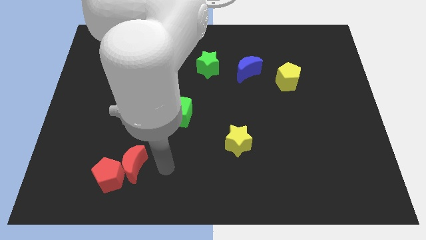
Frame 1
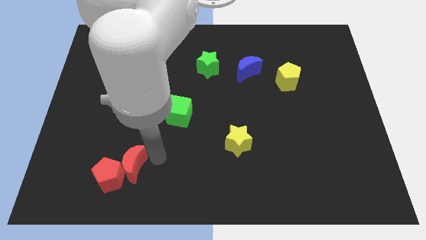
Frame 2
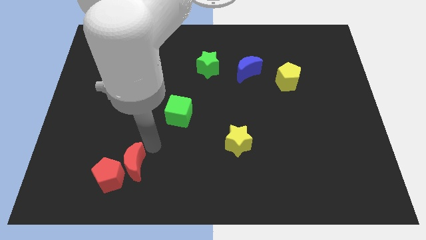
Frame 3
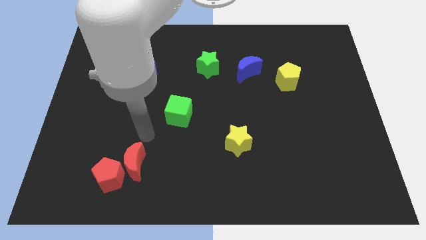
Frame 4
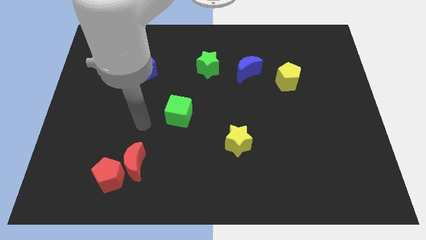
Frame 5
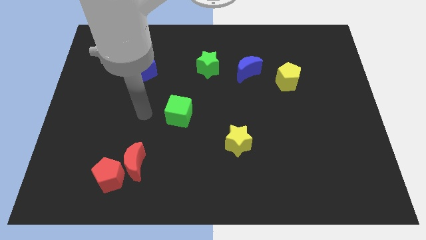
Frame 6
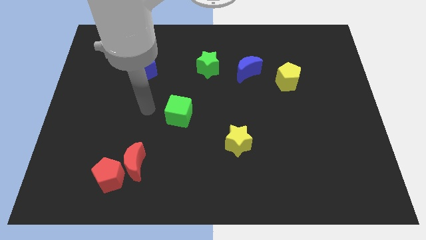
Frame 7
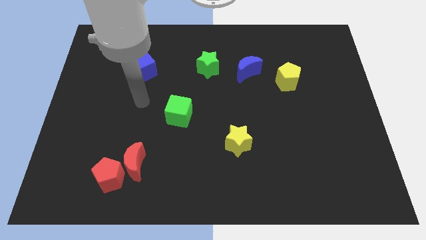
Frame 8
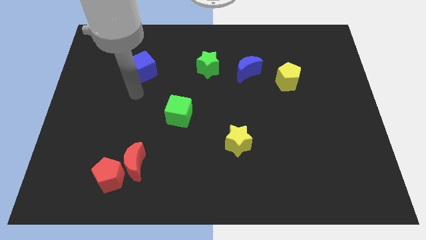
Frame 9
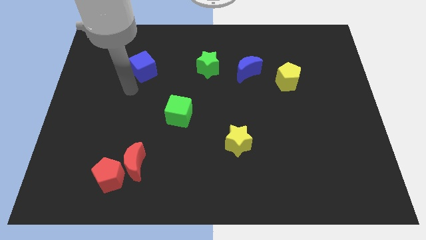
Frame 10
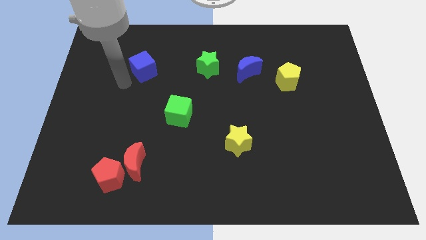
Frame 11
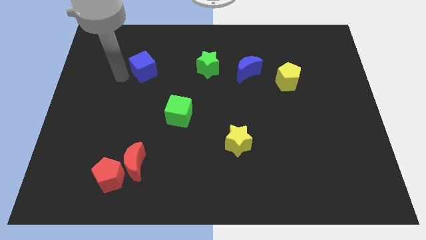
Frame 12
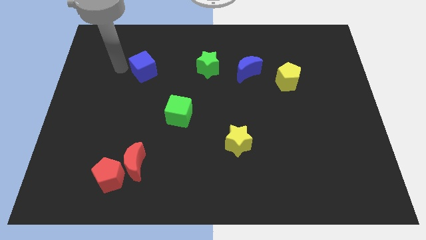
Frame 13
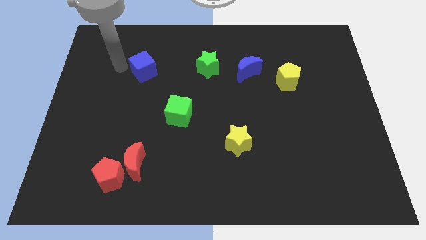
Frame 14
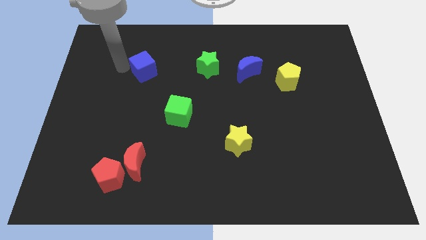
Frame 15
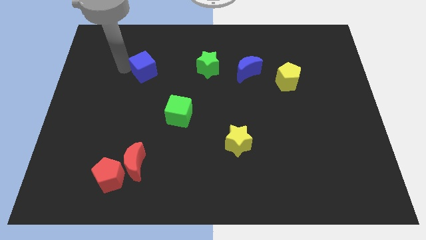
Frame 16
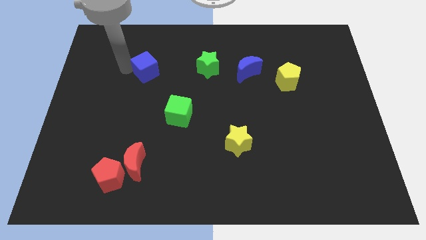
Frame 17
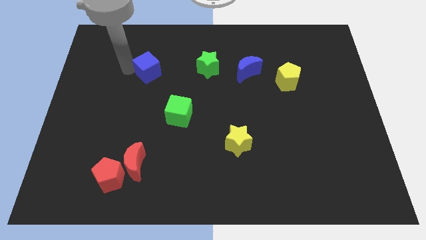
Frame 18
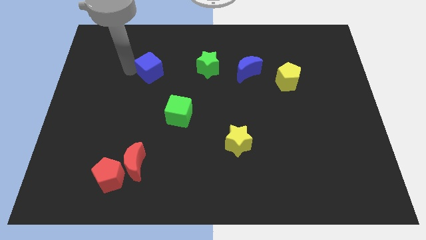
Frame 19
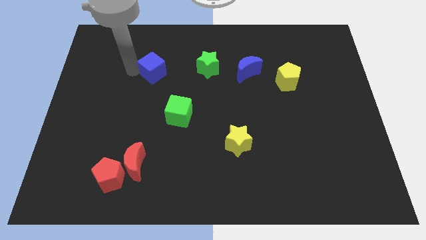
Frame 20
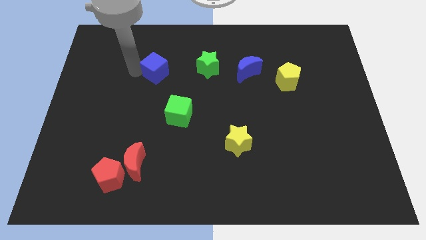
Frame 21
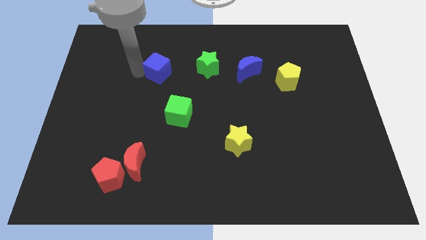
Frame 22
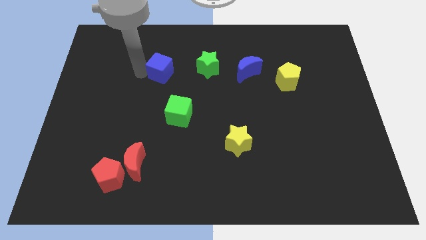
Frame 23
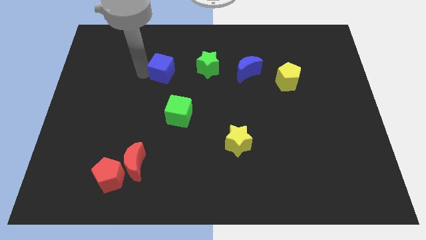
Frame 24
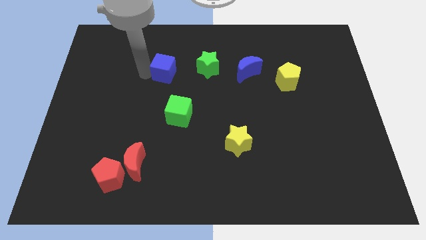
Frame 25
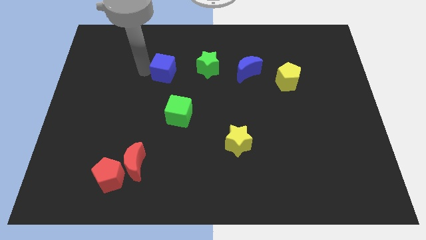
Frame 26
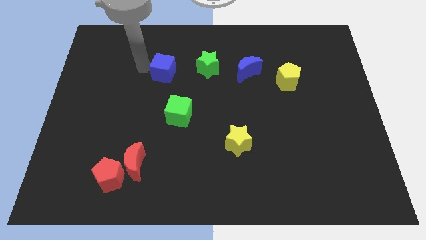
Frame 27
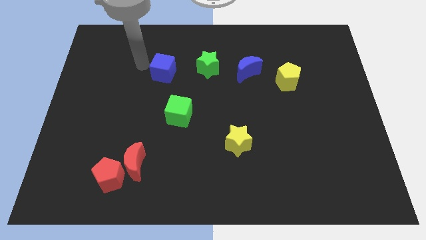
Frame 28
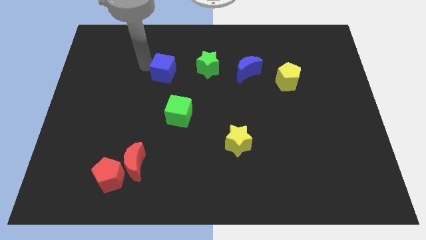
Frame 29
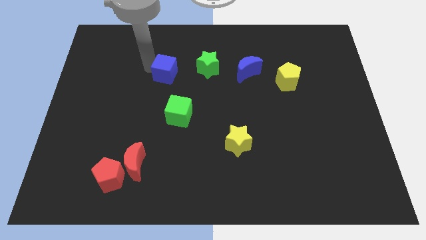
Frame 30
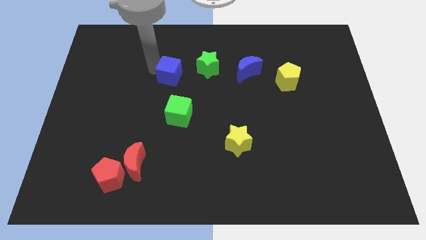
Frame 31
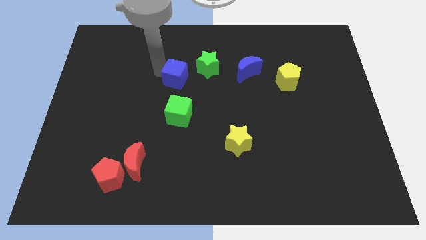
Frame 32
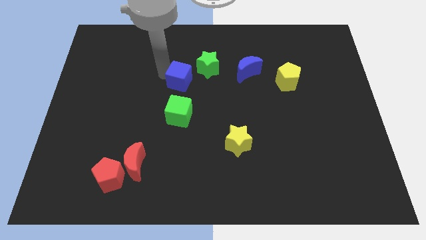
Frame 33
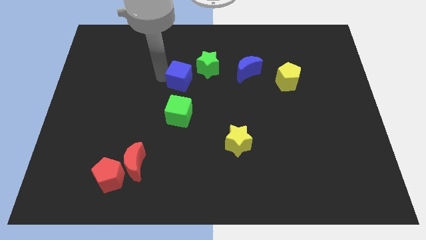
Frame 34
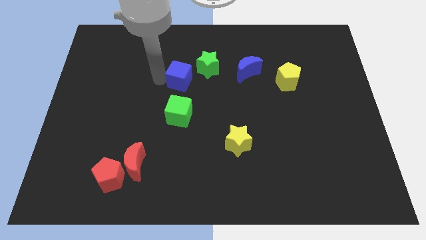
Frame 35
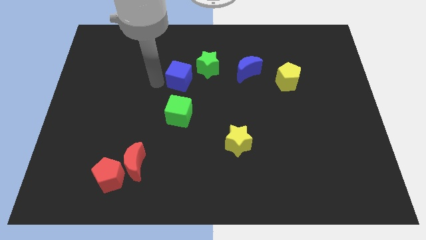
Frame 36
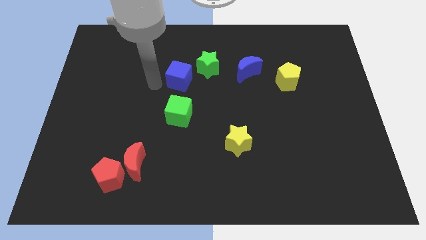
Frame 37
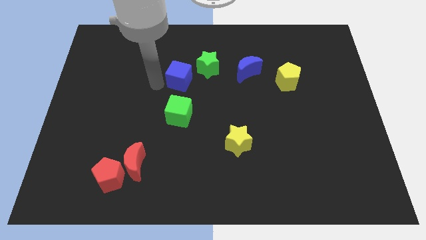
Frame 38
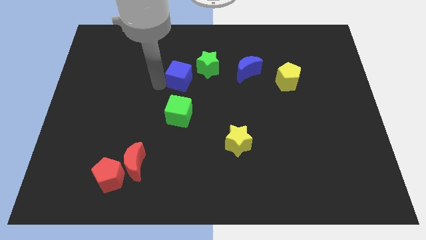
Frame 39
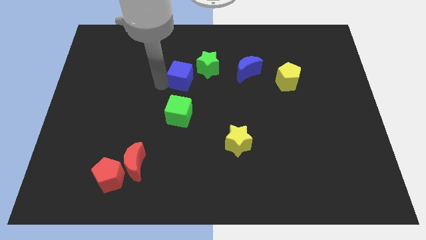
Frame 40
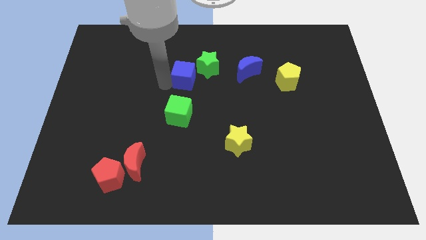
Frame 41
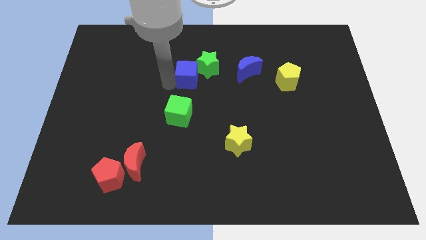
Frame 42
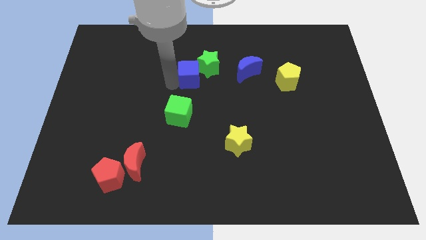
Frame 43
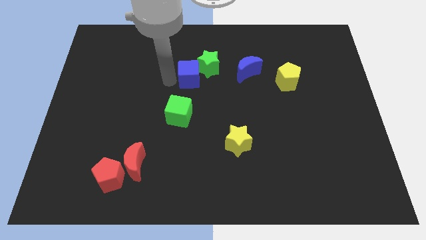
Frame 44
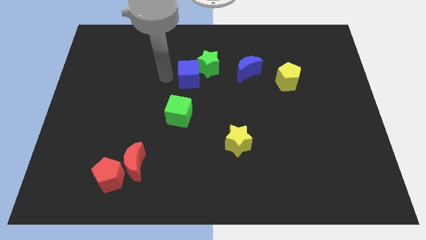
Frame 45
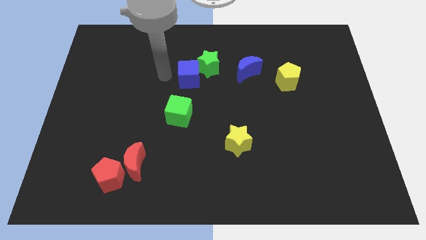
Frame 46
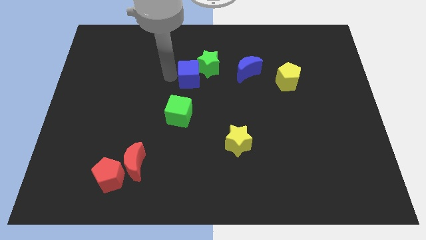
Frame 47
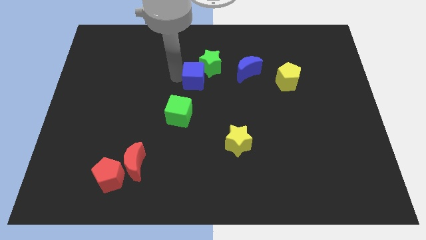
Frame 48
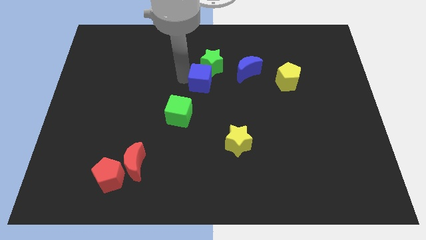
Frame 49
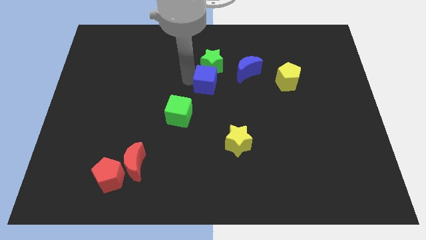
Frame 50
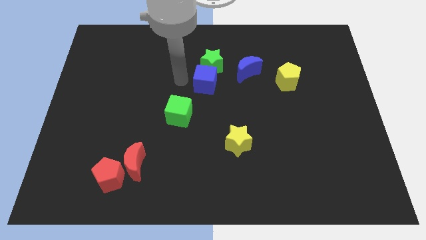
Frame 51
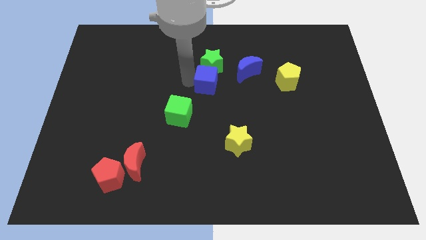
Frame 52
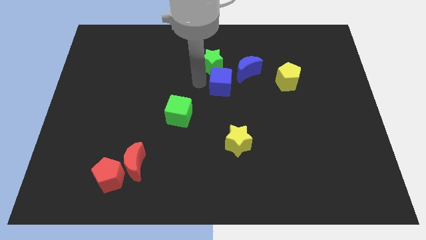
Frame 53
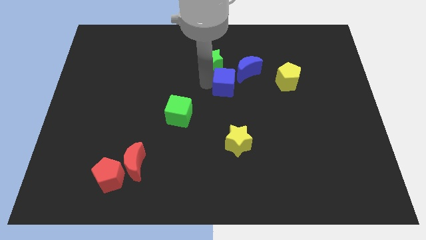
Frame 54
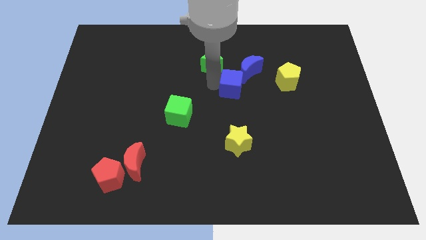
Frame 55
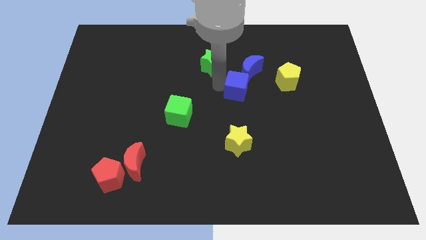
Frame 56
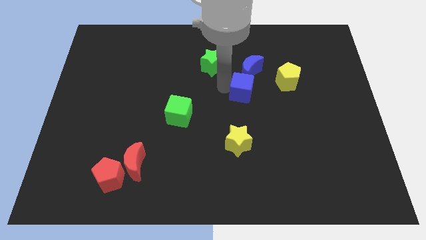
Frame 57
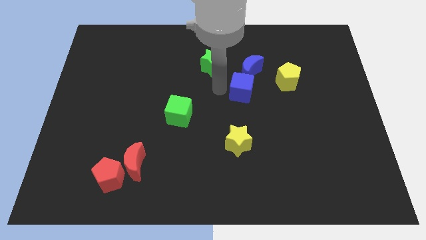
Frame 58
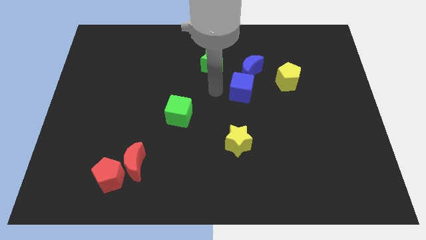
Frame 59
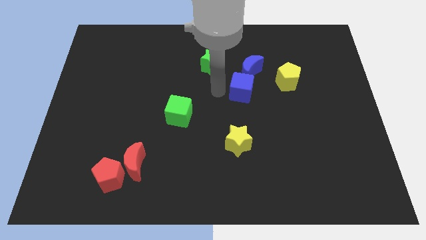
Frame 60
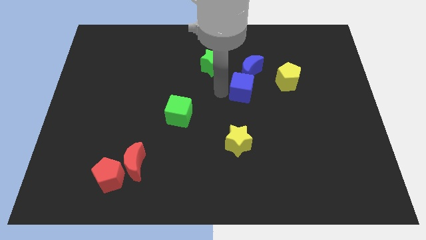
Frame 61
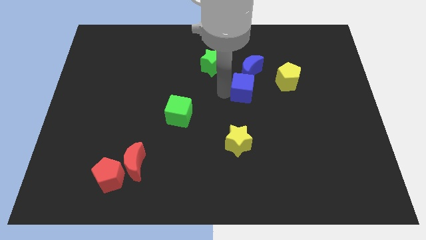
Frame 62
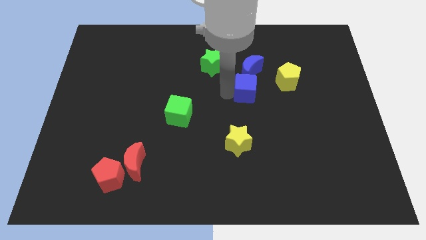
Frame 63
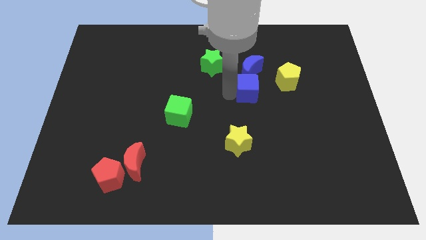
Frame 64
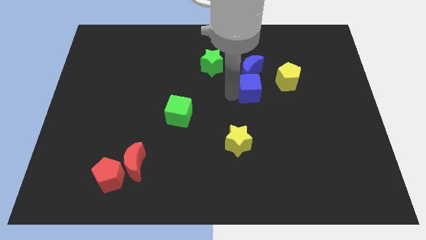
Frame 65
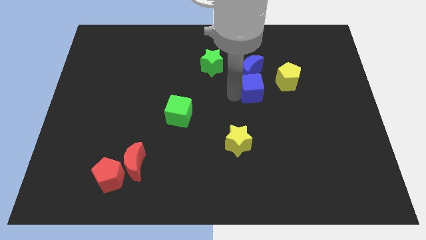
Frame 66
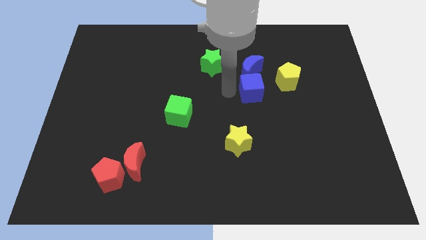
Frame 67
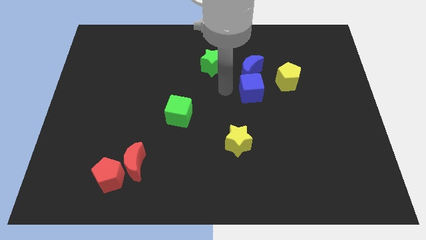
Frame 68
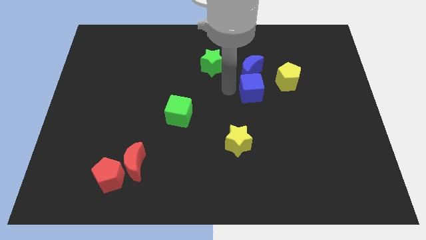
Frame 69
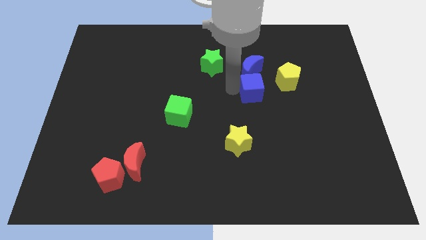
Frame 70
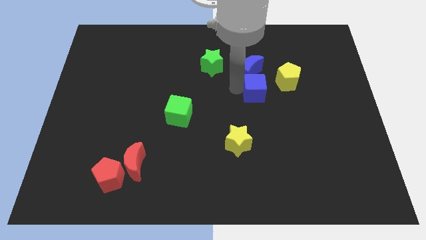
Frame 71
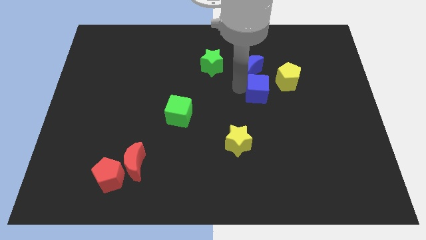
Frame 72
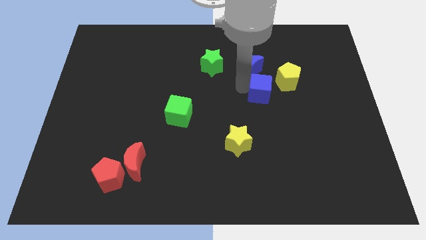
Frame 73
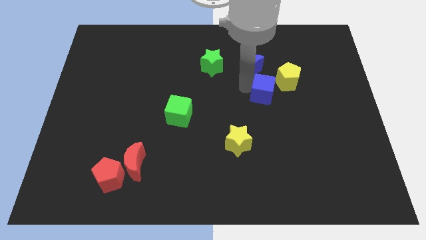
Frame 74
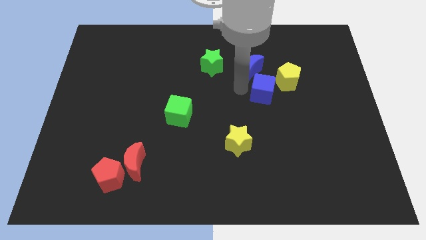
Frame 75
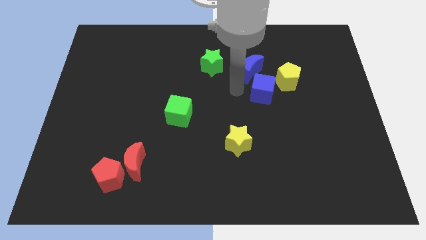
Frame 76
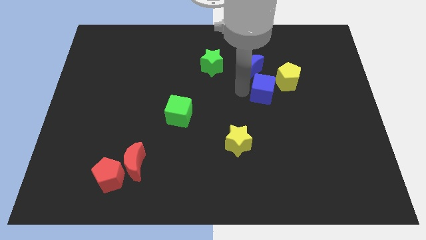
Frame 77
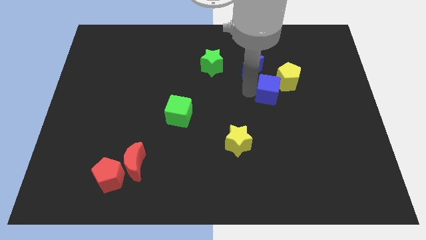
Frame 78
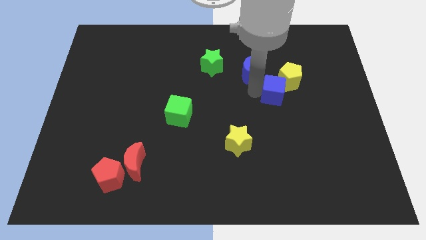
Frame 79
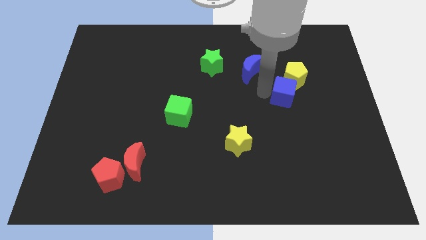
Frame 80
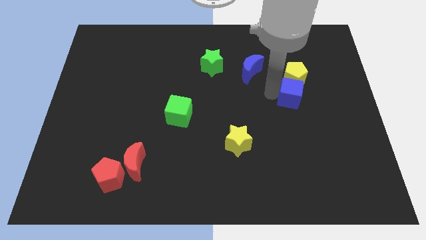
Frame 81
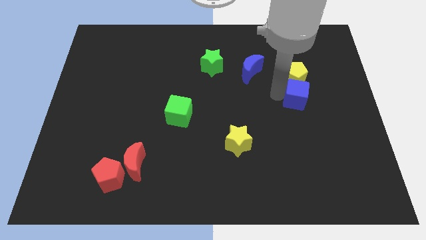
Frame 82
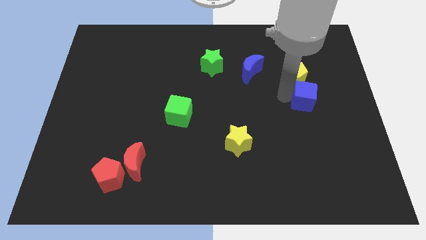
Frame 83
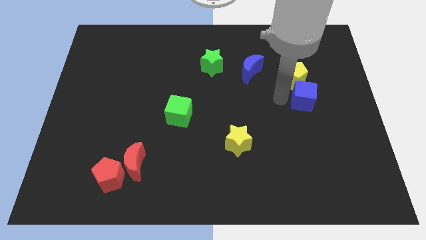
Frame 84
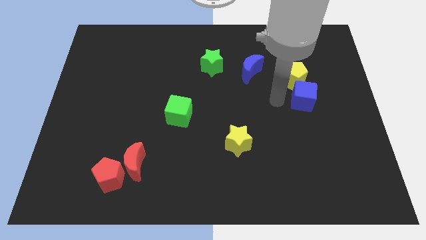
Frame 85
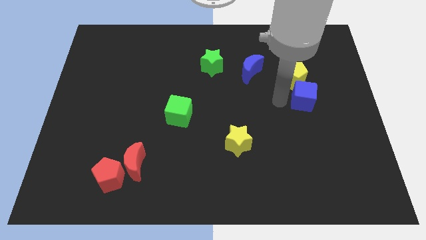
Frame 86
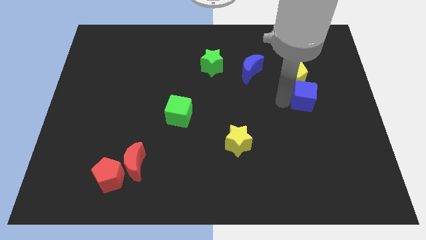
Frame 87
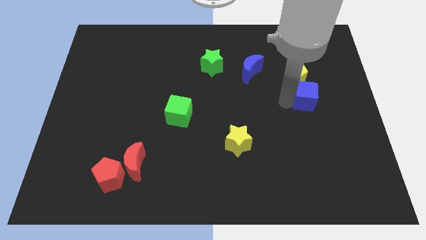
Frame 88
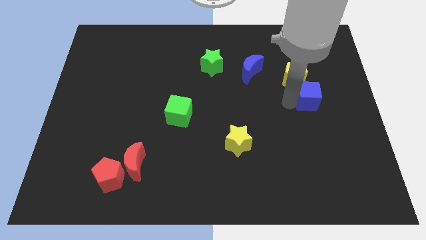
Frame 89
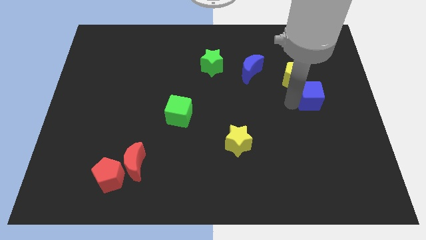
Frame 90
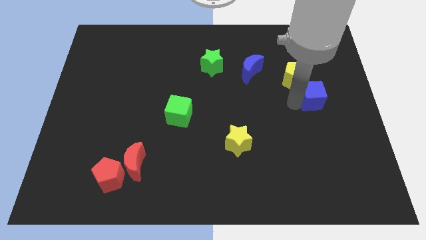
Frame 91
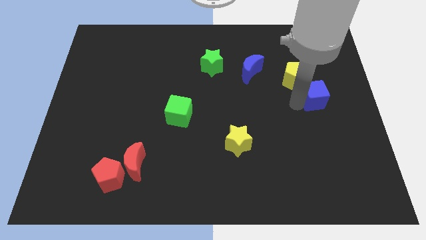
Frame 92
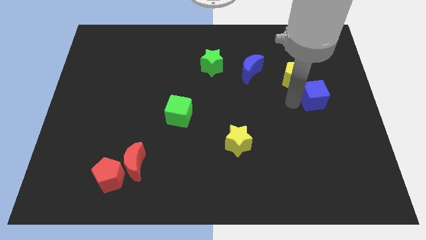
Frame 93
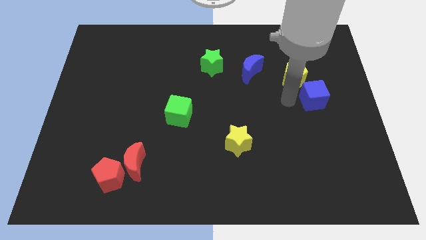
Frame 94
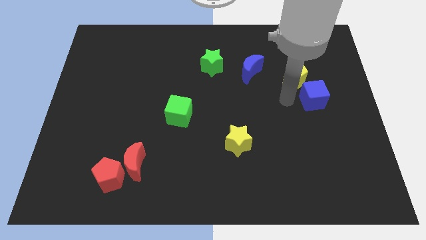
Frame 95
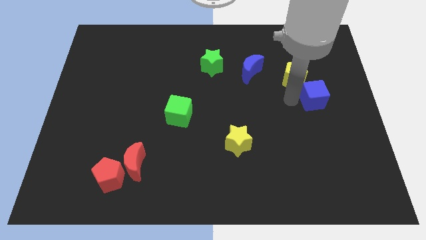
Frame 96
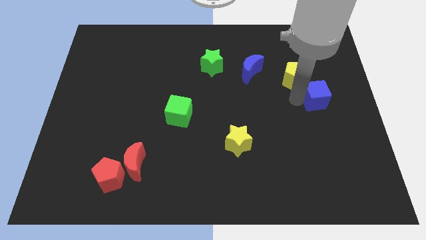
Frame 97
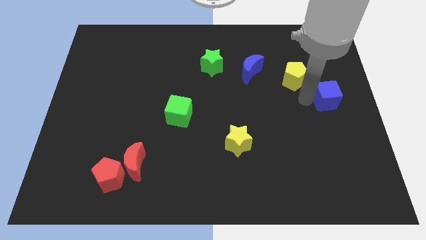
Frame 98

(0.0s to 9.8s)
push the blue cube to the right side
